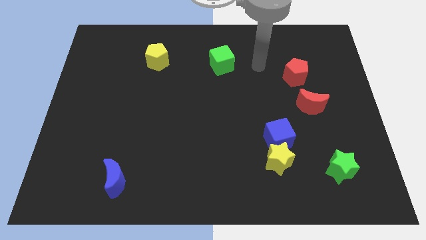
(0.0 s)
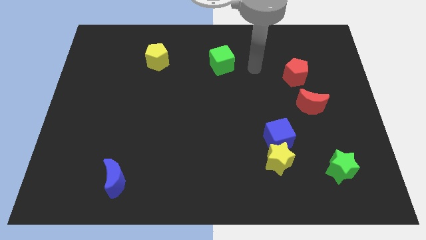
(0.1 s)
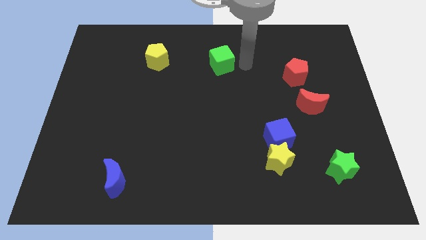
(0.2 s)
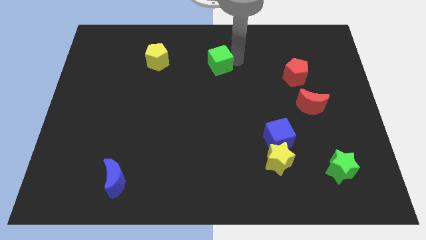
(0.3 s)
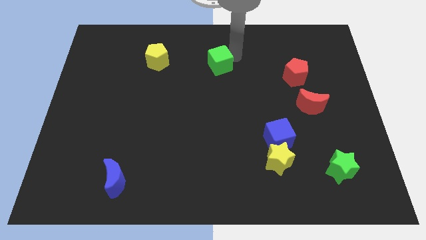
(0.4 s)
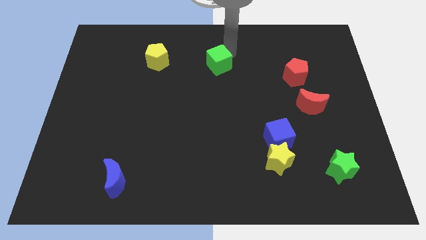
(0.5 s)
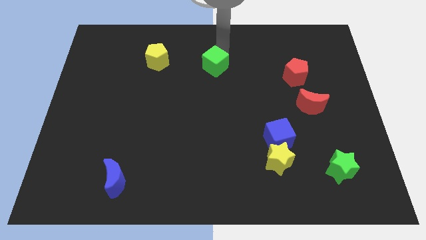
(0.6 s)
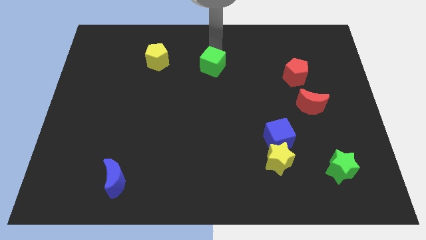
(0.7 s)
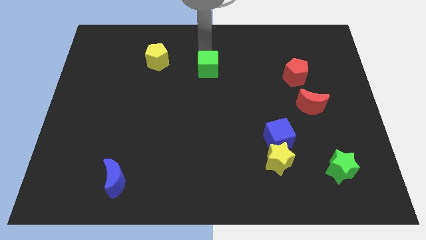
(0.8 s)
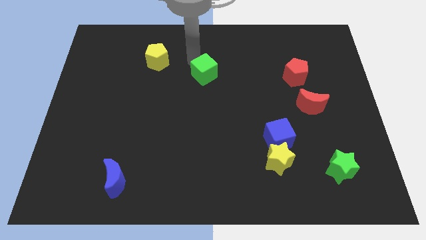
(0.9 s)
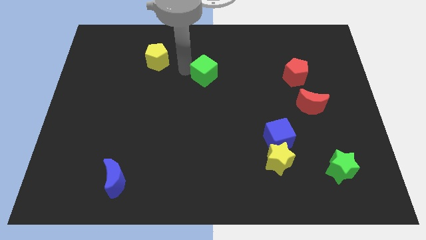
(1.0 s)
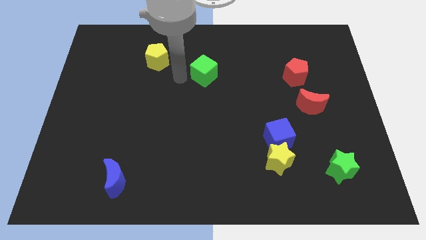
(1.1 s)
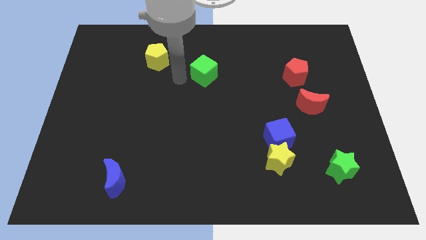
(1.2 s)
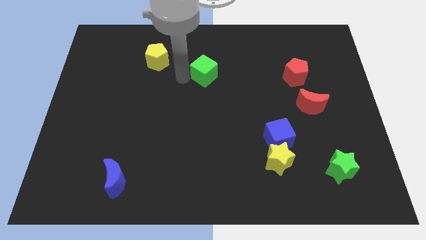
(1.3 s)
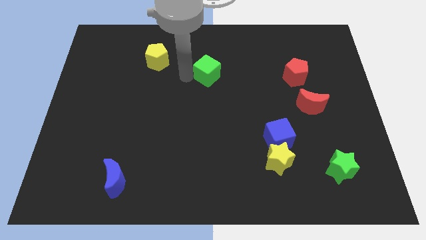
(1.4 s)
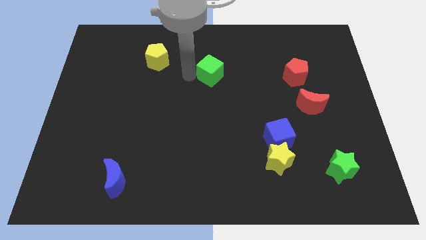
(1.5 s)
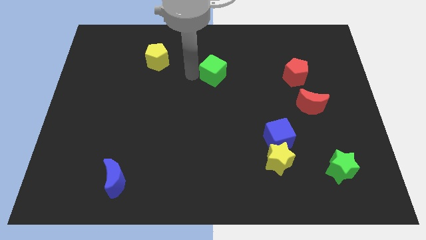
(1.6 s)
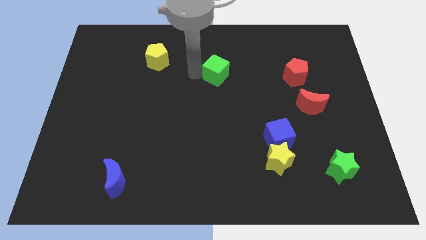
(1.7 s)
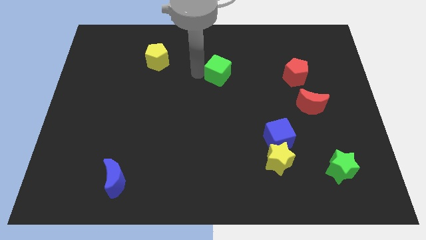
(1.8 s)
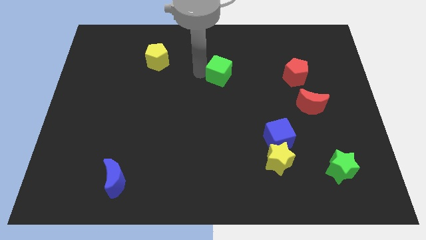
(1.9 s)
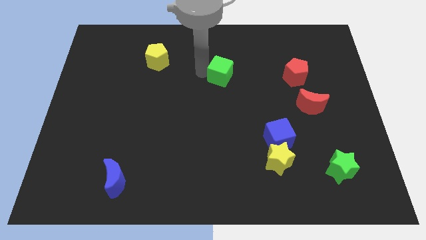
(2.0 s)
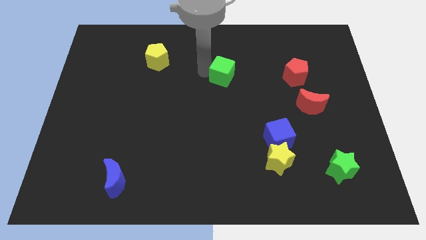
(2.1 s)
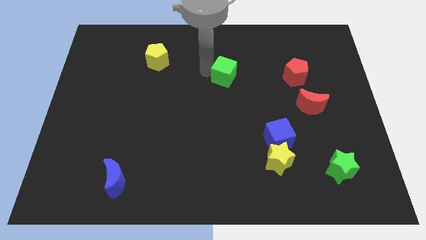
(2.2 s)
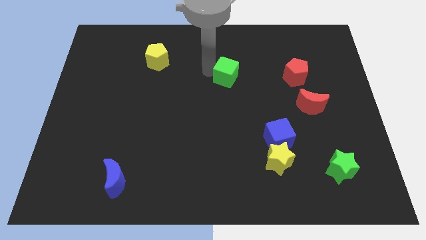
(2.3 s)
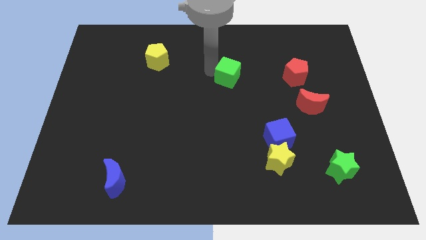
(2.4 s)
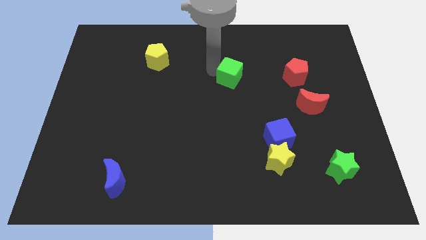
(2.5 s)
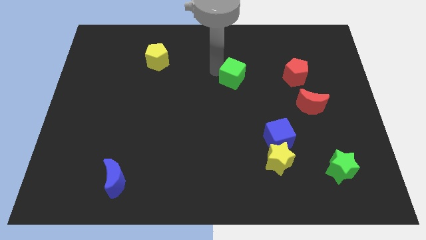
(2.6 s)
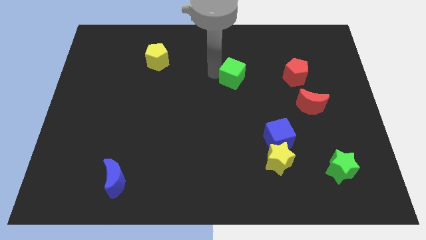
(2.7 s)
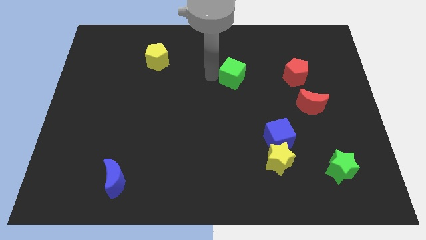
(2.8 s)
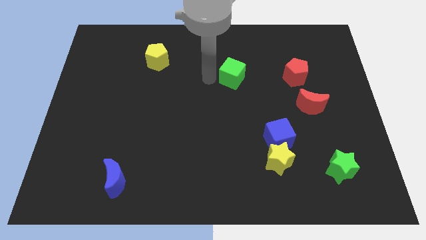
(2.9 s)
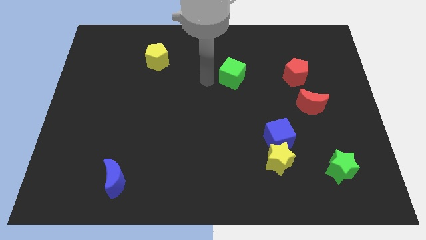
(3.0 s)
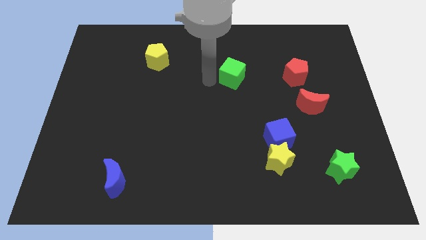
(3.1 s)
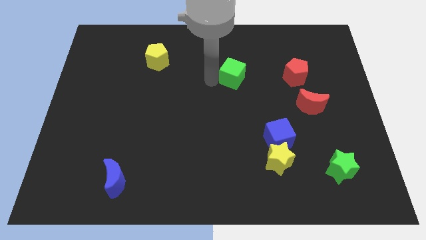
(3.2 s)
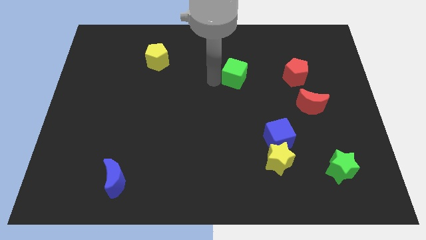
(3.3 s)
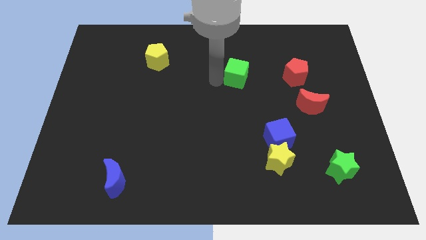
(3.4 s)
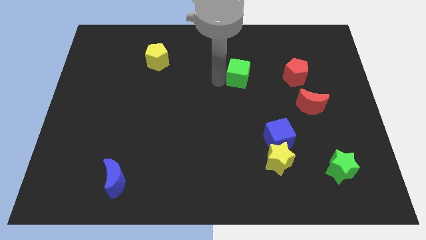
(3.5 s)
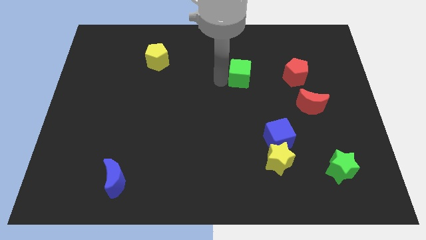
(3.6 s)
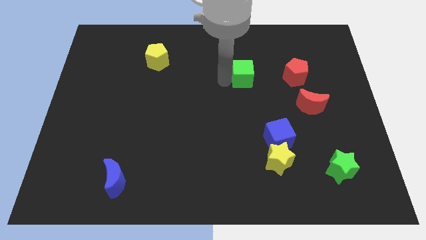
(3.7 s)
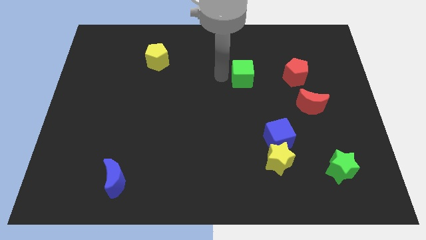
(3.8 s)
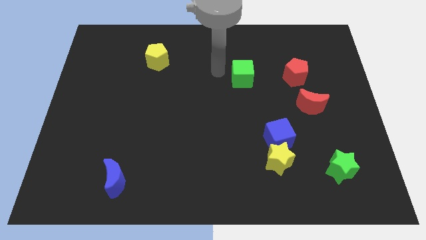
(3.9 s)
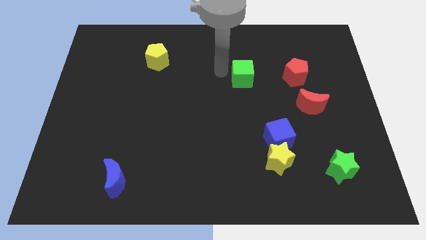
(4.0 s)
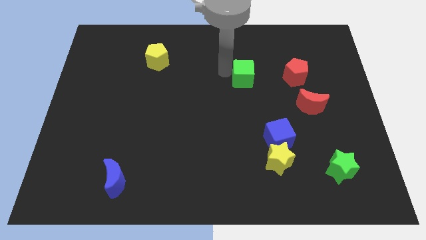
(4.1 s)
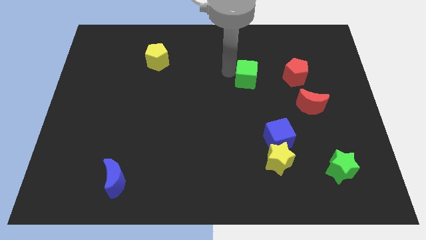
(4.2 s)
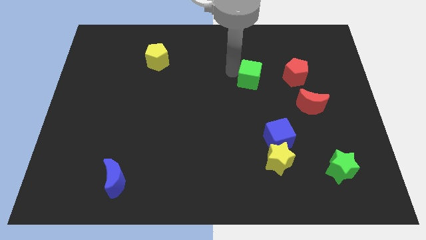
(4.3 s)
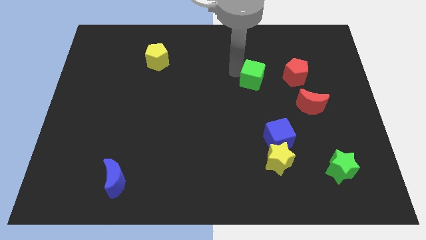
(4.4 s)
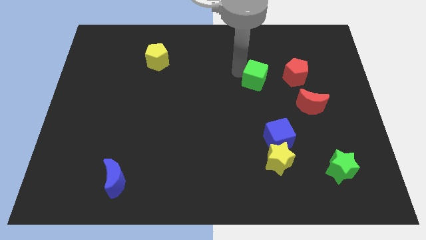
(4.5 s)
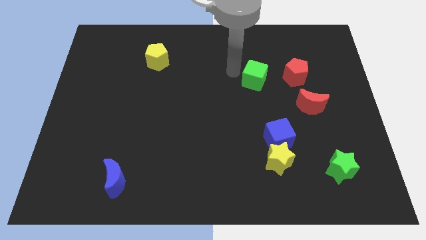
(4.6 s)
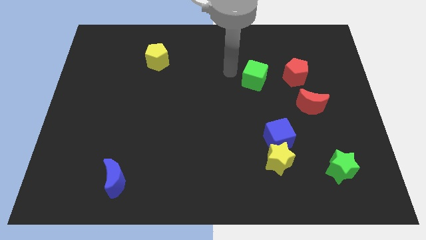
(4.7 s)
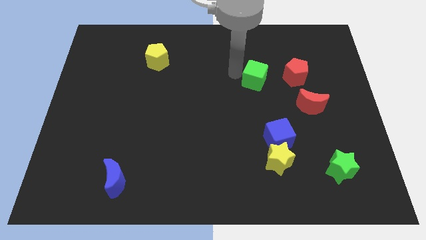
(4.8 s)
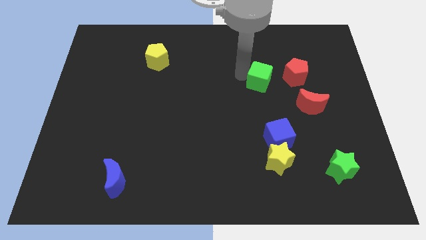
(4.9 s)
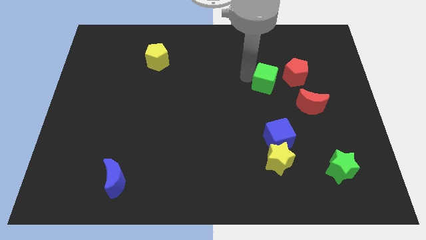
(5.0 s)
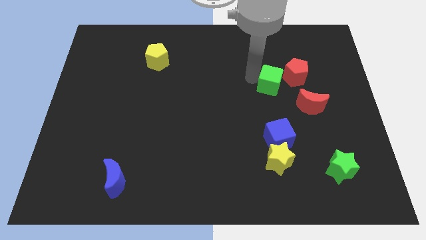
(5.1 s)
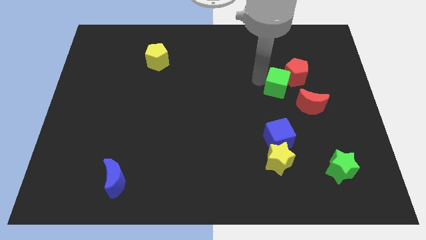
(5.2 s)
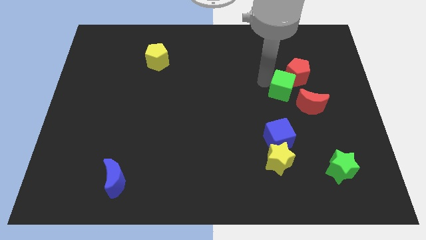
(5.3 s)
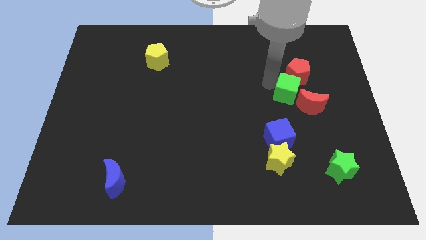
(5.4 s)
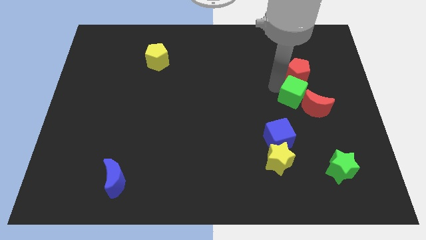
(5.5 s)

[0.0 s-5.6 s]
slide the green cube to the red moon

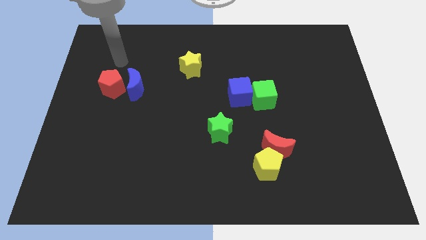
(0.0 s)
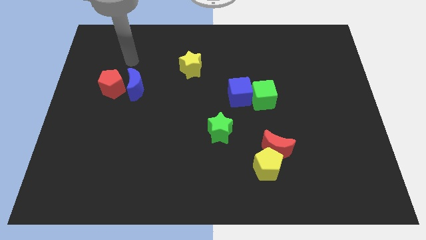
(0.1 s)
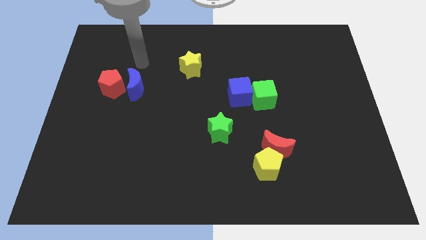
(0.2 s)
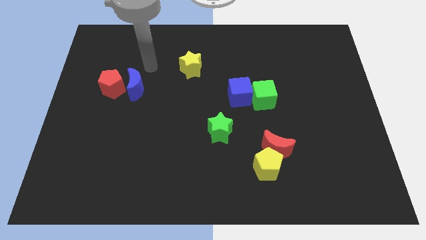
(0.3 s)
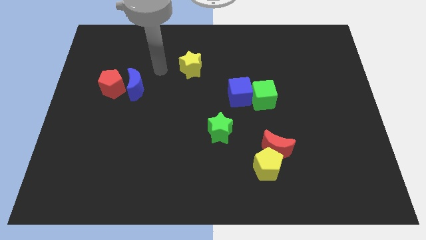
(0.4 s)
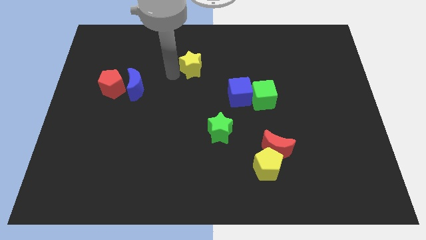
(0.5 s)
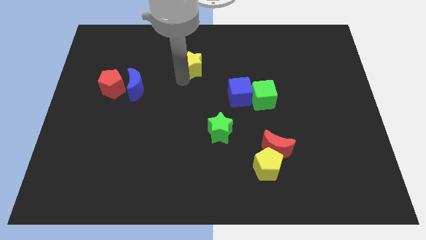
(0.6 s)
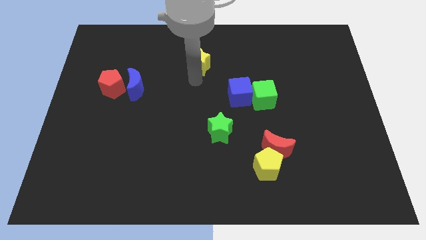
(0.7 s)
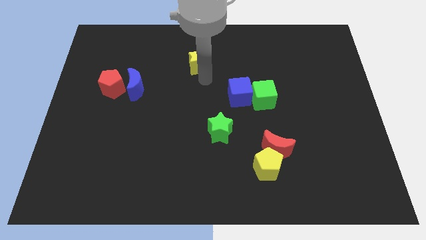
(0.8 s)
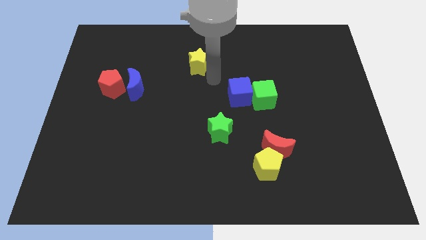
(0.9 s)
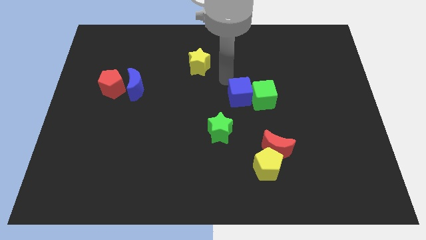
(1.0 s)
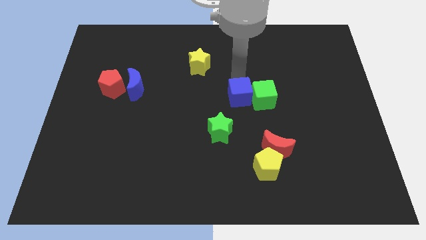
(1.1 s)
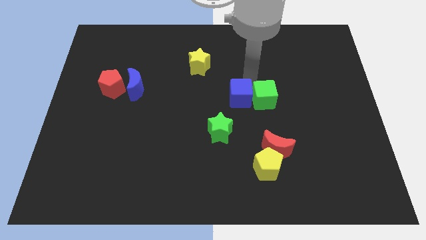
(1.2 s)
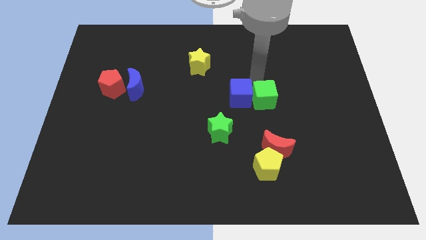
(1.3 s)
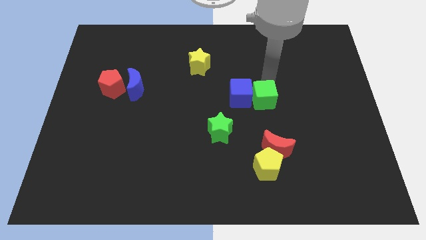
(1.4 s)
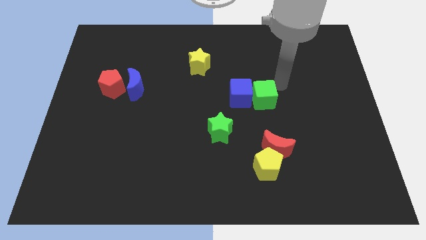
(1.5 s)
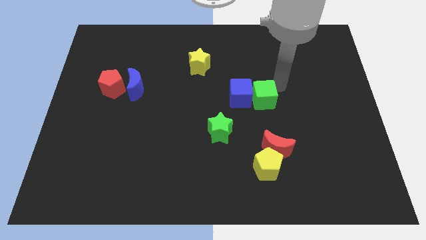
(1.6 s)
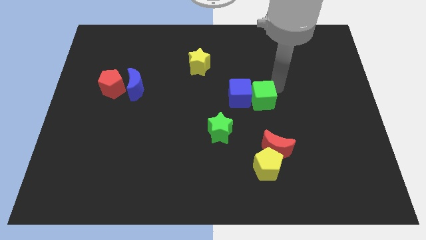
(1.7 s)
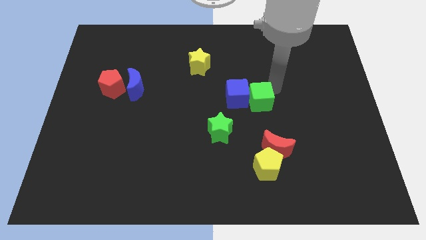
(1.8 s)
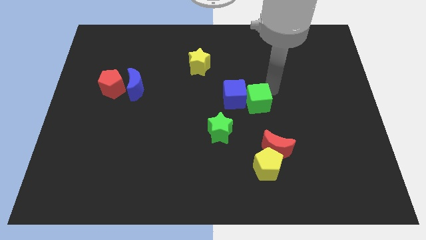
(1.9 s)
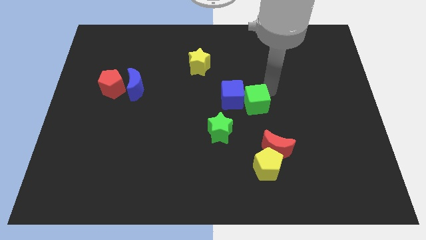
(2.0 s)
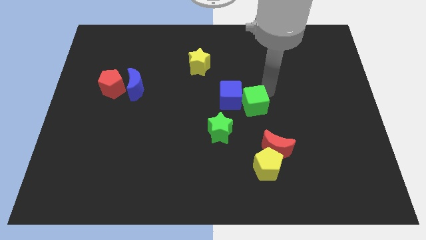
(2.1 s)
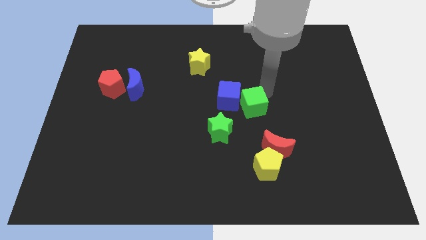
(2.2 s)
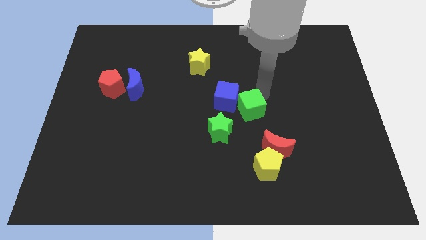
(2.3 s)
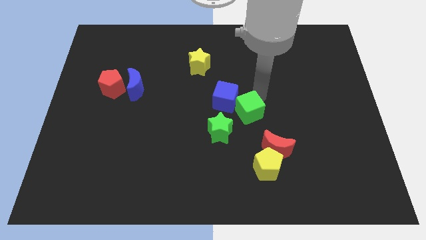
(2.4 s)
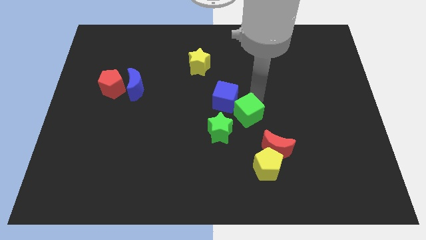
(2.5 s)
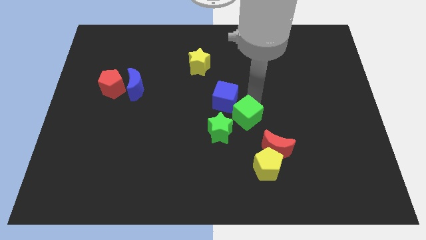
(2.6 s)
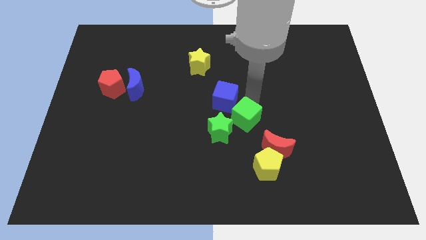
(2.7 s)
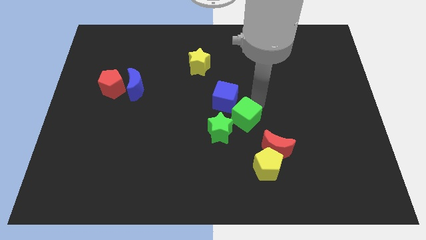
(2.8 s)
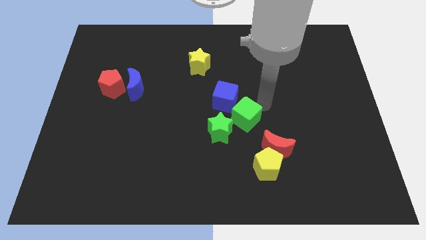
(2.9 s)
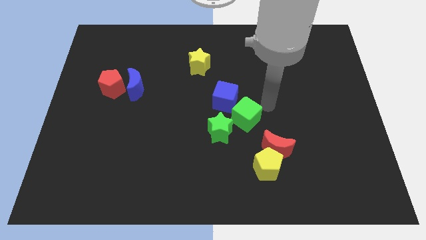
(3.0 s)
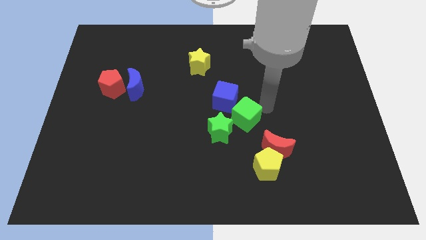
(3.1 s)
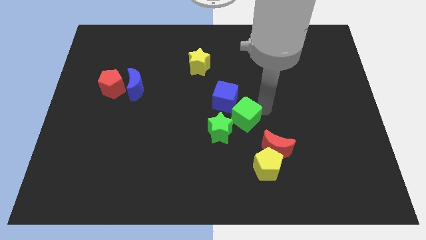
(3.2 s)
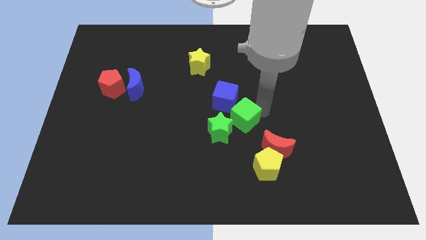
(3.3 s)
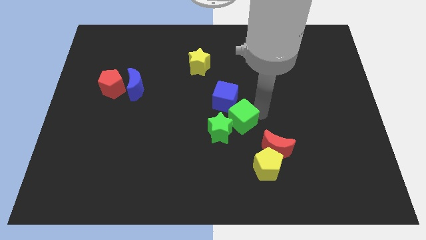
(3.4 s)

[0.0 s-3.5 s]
move the green cube towards the green star
